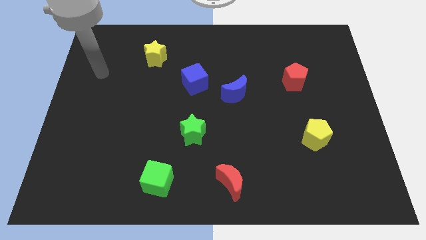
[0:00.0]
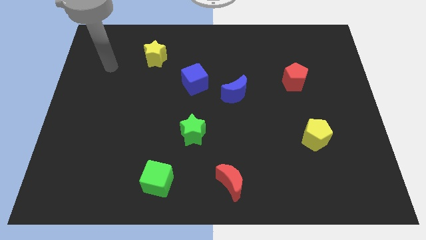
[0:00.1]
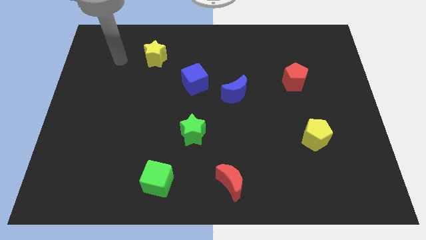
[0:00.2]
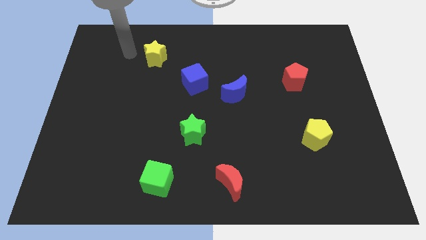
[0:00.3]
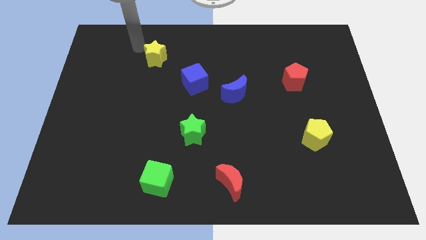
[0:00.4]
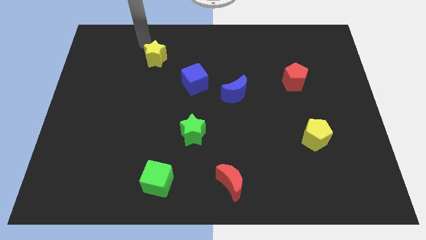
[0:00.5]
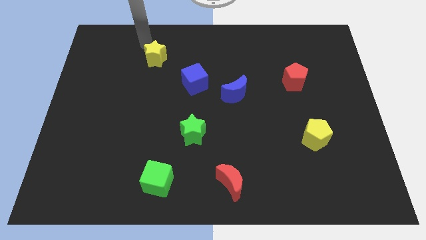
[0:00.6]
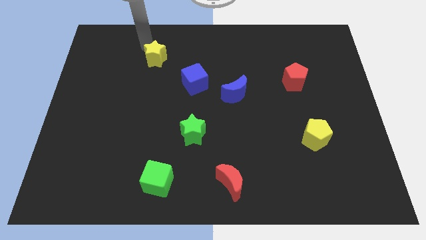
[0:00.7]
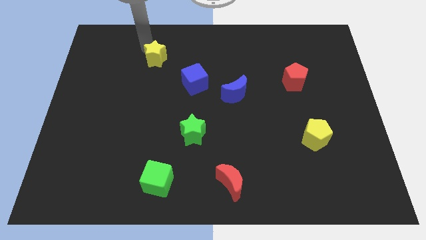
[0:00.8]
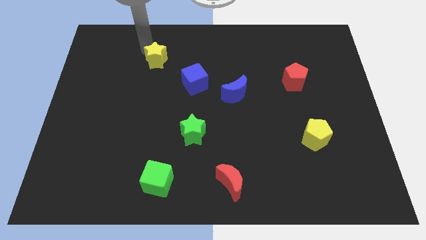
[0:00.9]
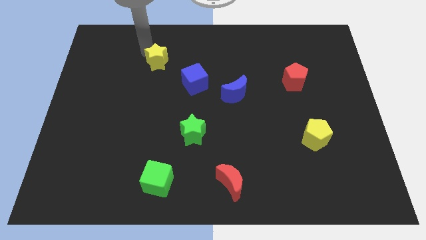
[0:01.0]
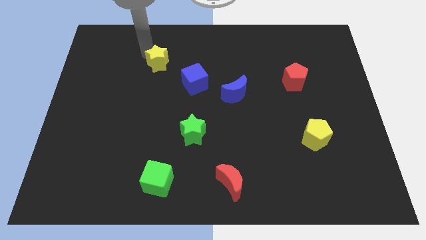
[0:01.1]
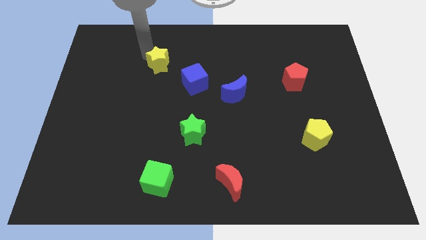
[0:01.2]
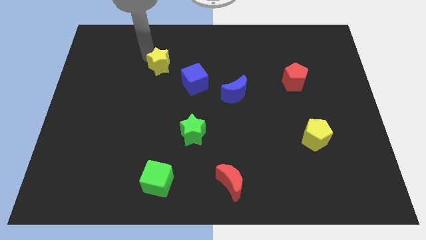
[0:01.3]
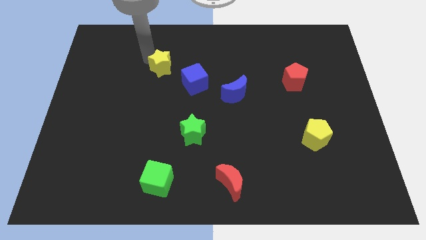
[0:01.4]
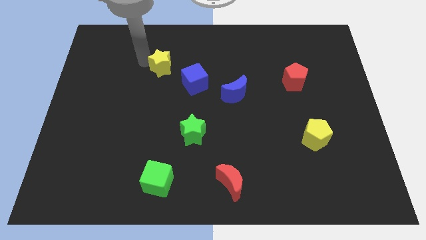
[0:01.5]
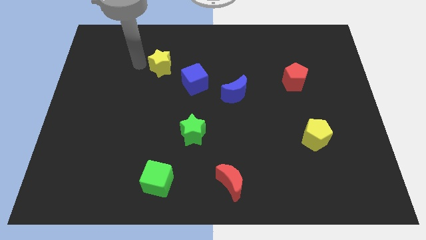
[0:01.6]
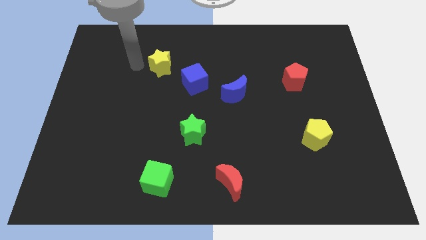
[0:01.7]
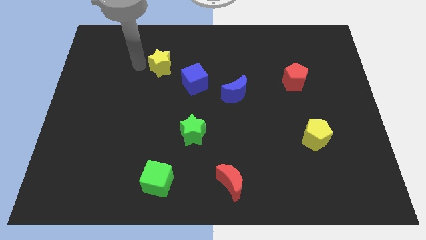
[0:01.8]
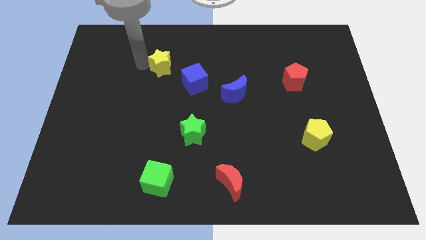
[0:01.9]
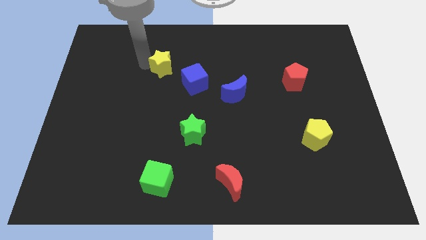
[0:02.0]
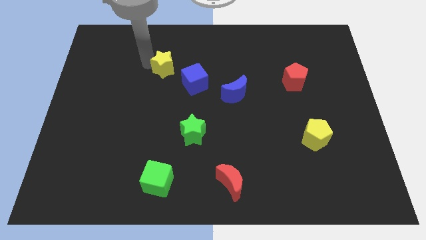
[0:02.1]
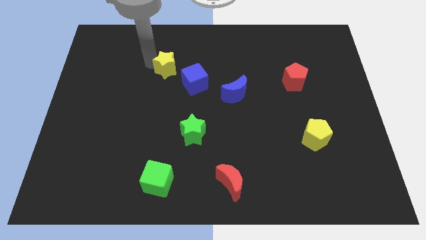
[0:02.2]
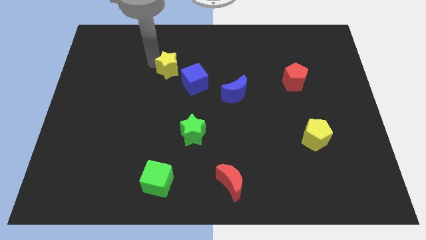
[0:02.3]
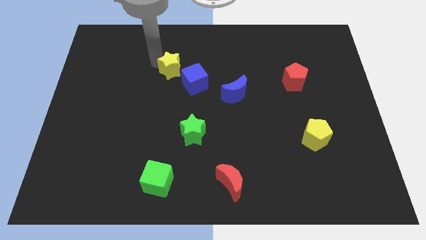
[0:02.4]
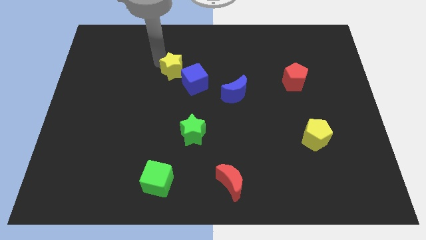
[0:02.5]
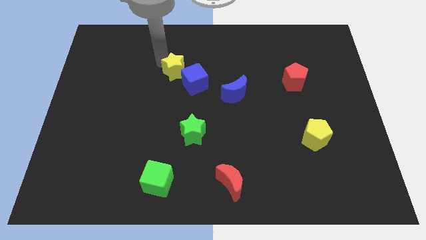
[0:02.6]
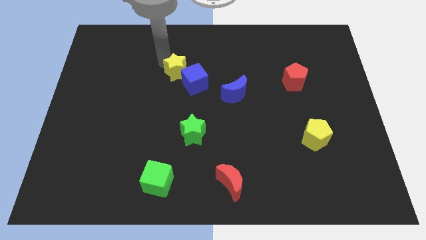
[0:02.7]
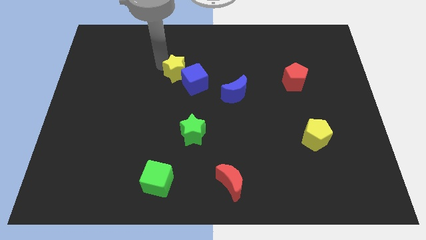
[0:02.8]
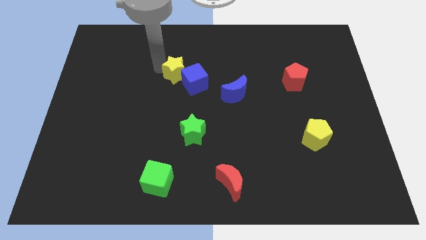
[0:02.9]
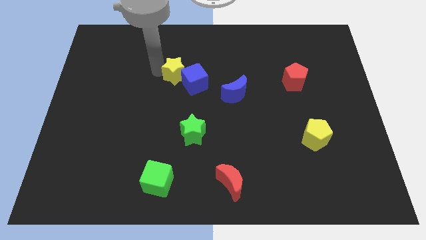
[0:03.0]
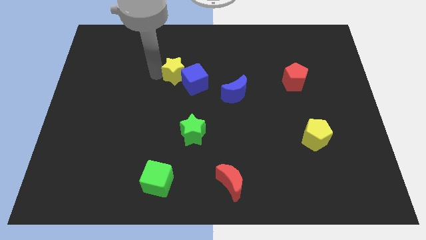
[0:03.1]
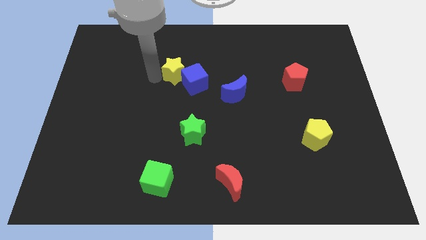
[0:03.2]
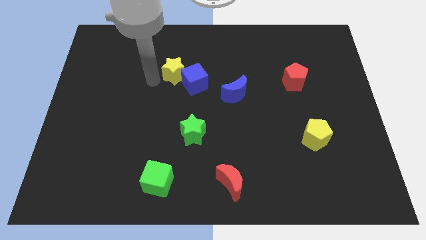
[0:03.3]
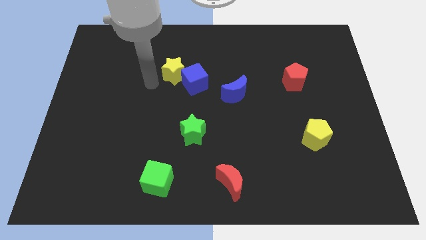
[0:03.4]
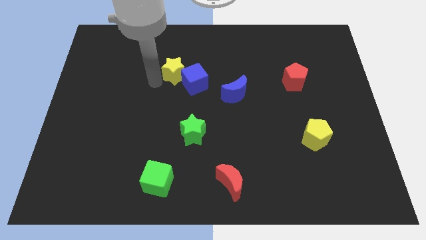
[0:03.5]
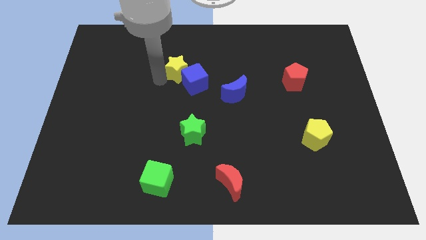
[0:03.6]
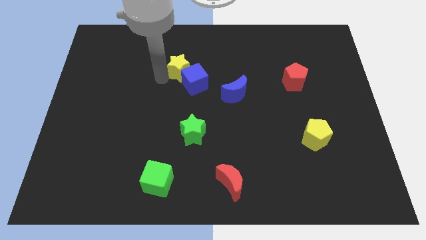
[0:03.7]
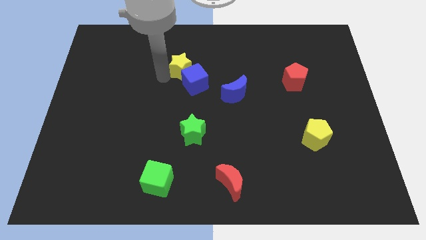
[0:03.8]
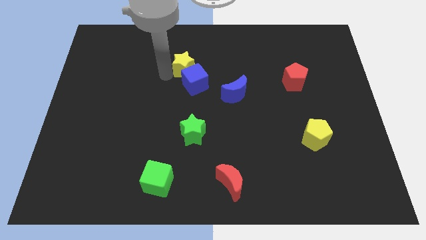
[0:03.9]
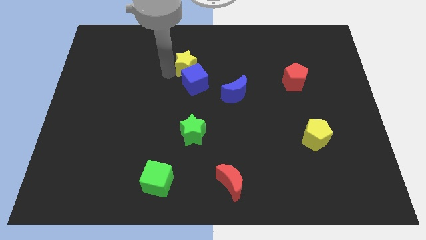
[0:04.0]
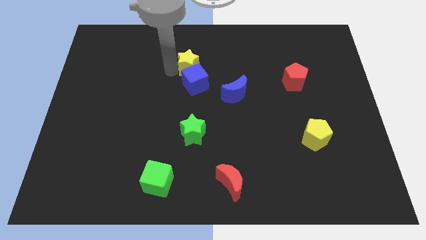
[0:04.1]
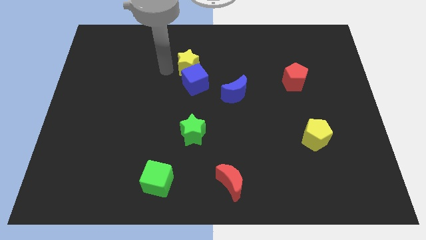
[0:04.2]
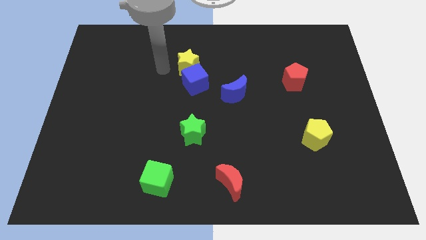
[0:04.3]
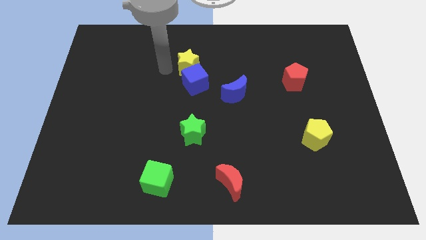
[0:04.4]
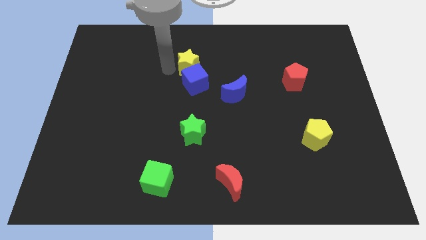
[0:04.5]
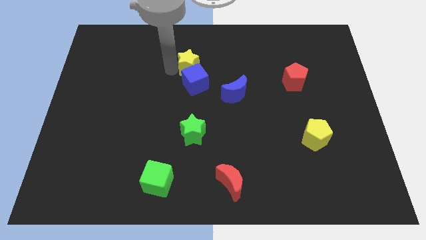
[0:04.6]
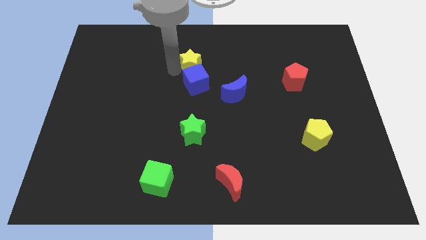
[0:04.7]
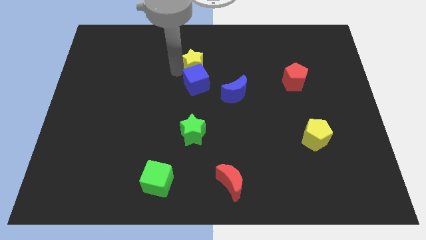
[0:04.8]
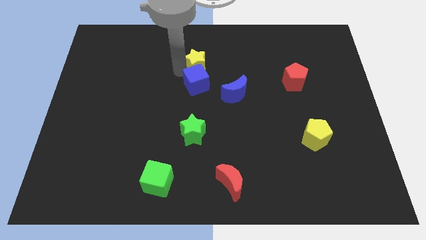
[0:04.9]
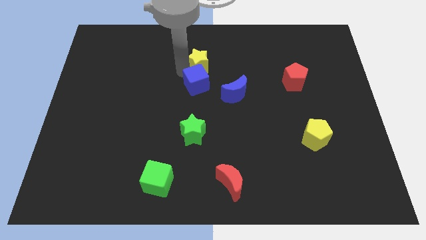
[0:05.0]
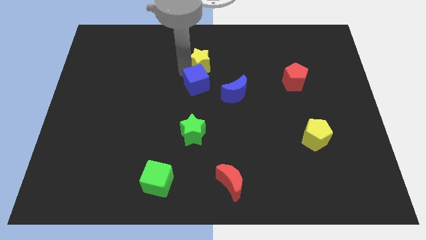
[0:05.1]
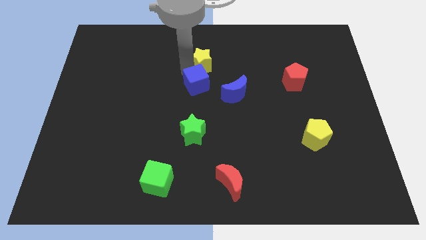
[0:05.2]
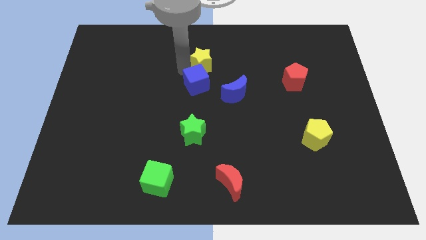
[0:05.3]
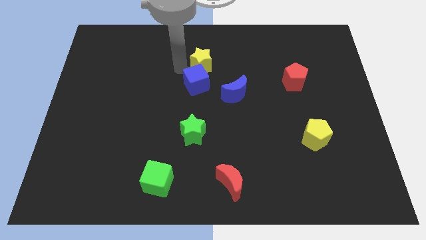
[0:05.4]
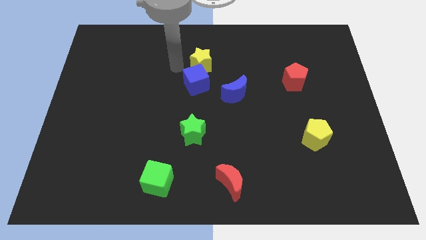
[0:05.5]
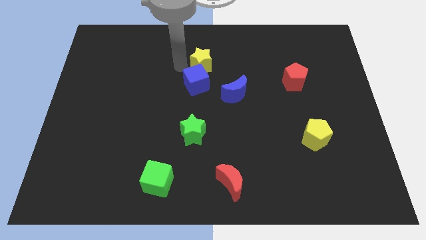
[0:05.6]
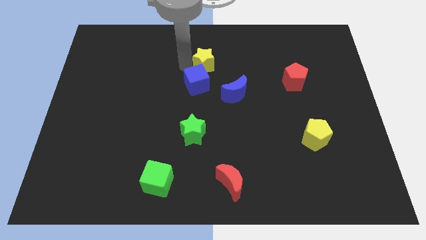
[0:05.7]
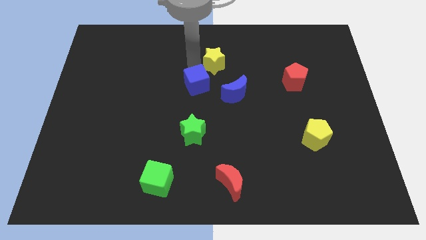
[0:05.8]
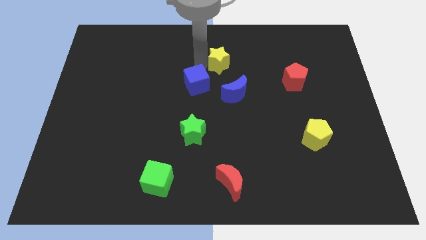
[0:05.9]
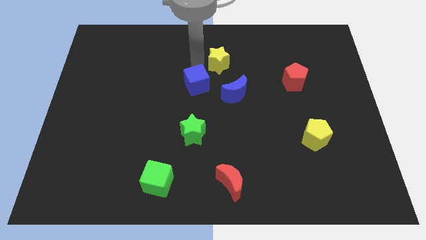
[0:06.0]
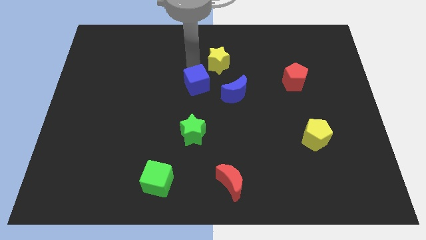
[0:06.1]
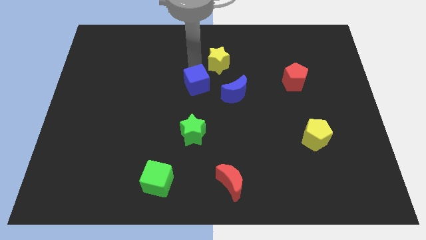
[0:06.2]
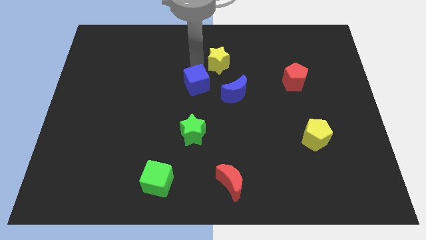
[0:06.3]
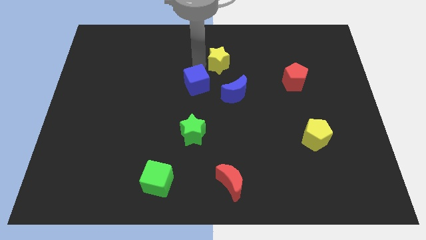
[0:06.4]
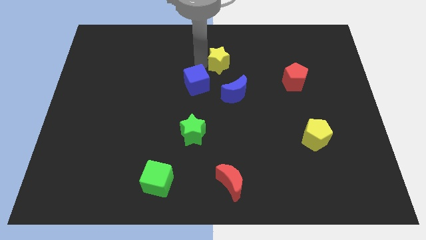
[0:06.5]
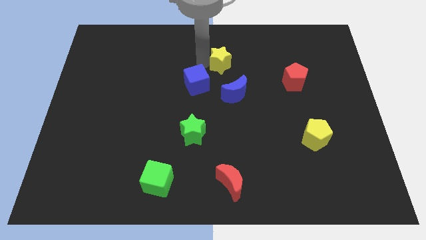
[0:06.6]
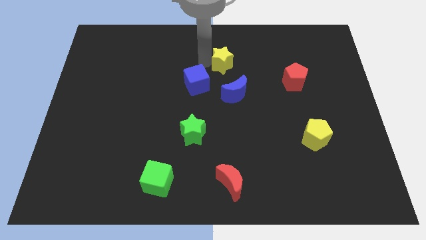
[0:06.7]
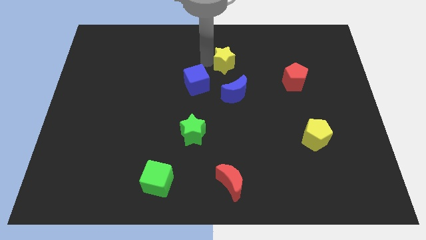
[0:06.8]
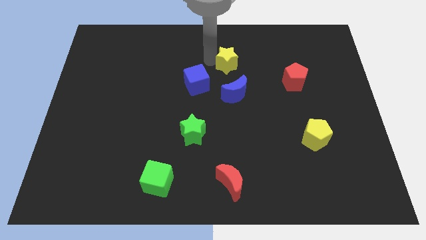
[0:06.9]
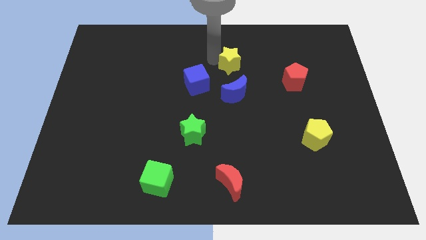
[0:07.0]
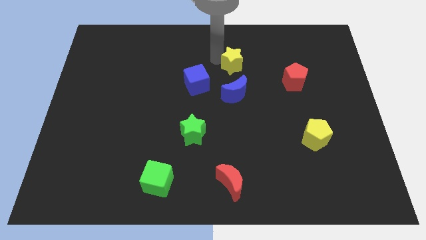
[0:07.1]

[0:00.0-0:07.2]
push the yellow star to the right

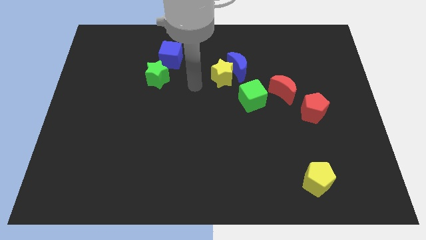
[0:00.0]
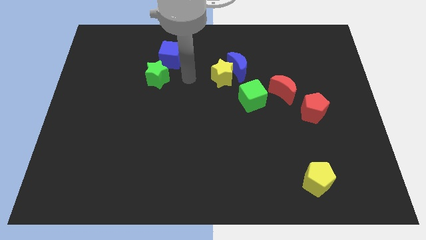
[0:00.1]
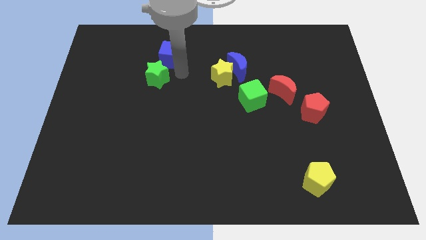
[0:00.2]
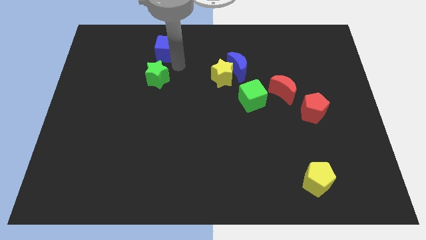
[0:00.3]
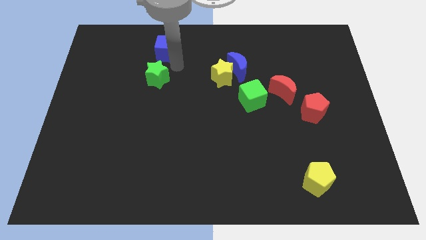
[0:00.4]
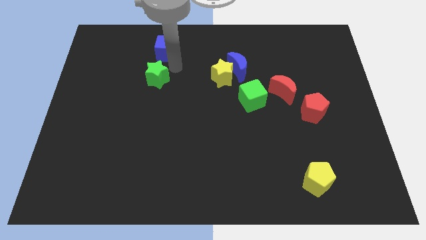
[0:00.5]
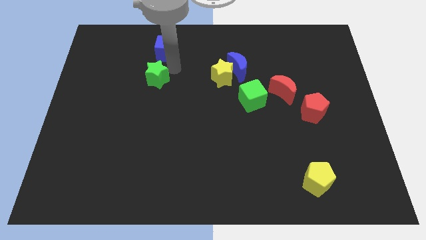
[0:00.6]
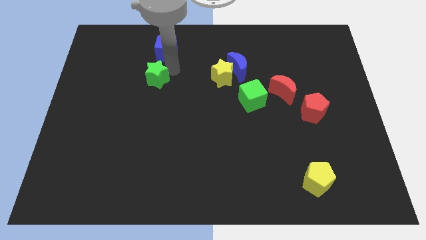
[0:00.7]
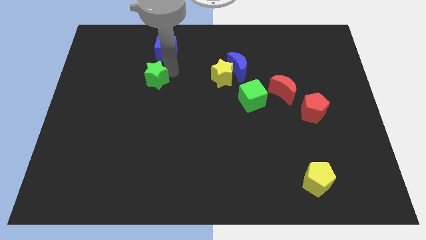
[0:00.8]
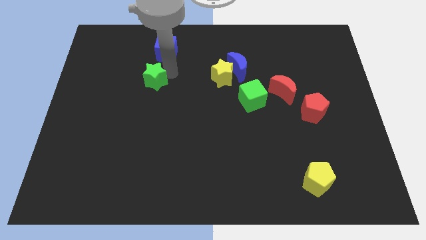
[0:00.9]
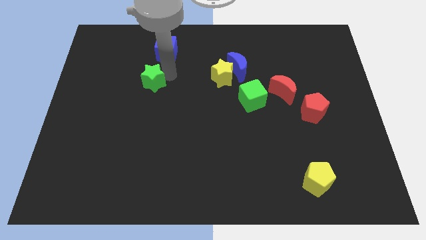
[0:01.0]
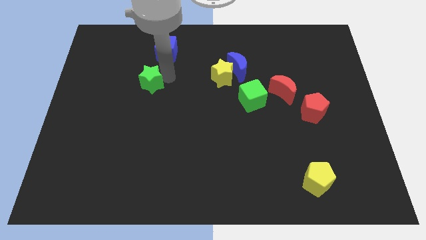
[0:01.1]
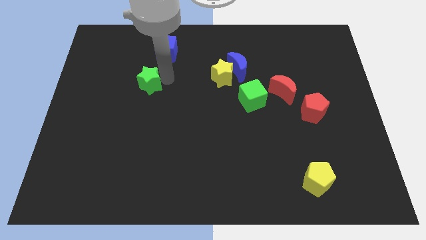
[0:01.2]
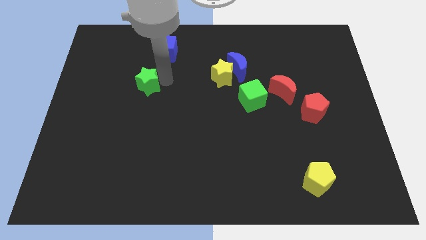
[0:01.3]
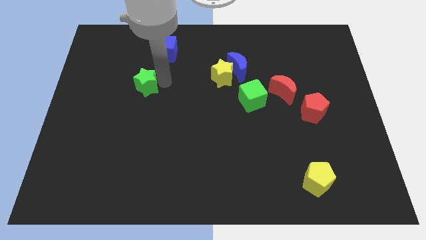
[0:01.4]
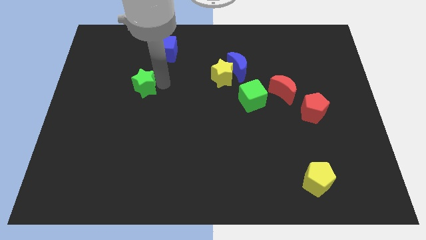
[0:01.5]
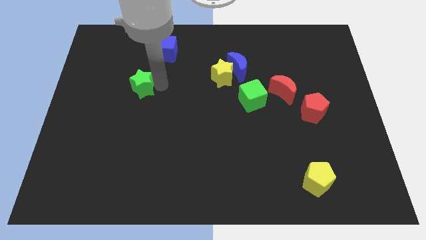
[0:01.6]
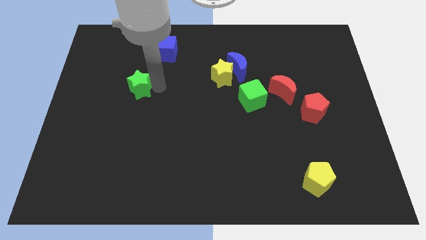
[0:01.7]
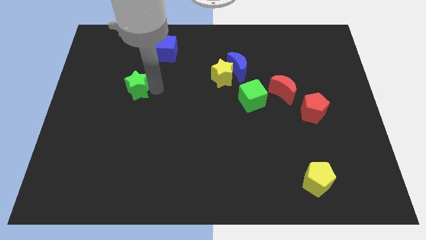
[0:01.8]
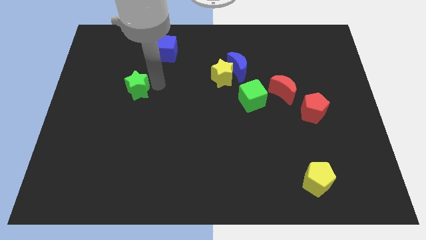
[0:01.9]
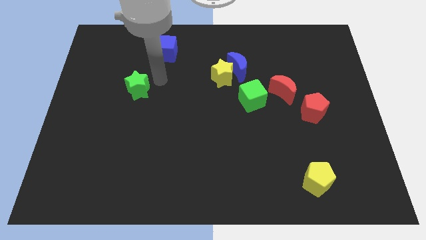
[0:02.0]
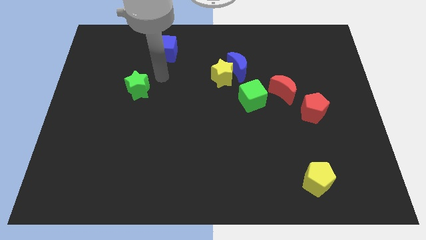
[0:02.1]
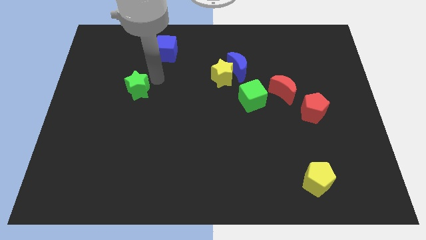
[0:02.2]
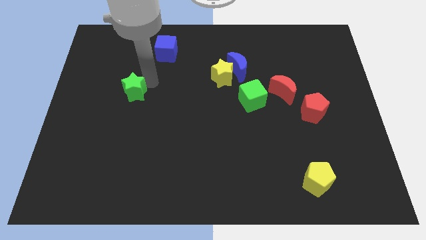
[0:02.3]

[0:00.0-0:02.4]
slightly push the green star down and left diagonally
